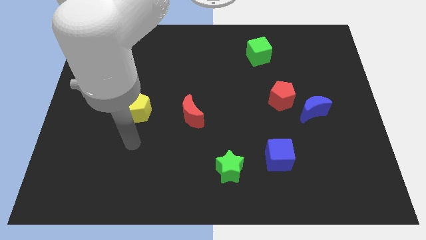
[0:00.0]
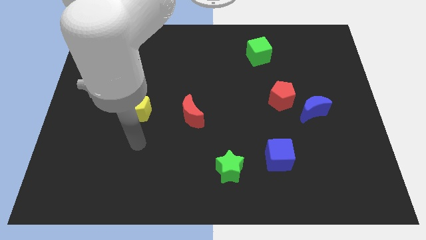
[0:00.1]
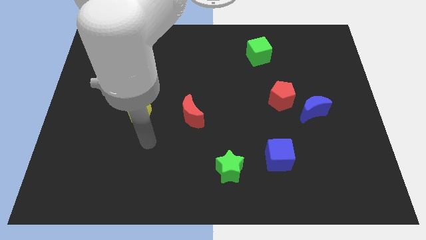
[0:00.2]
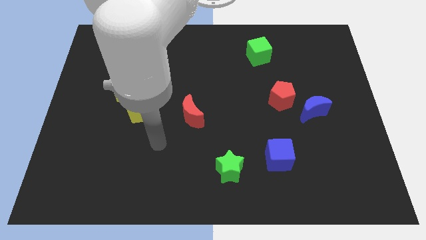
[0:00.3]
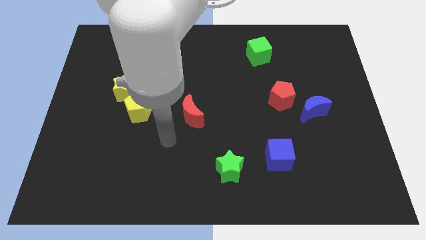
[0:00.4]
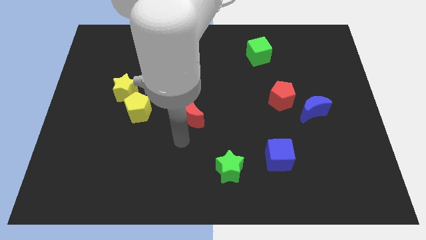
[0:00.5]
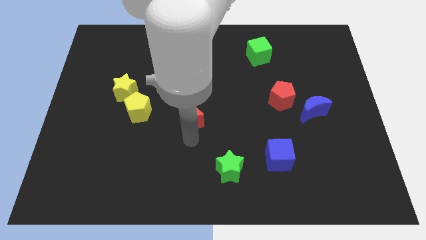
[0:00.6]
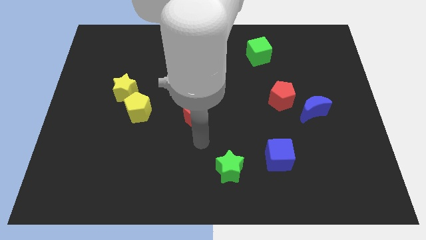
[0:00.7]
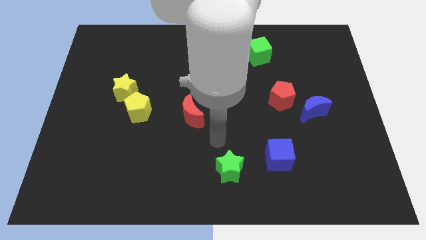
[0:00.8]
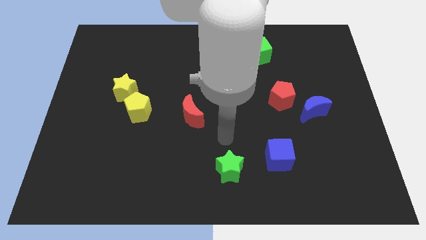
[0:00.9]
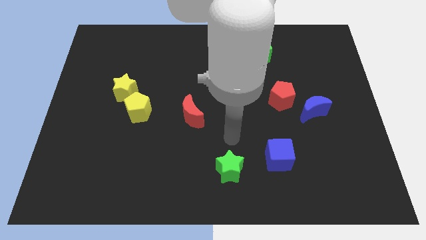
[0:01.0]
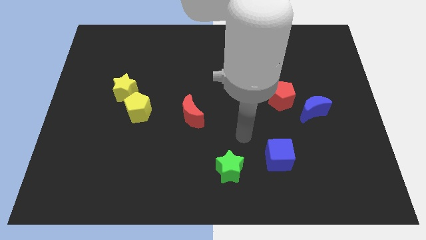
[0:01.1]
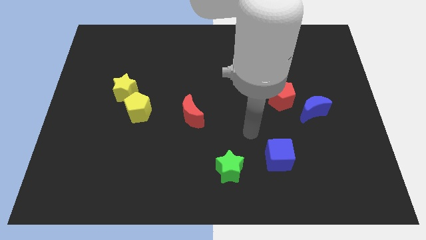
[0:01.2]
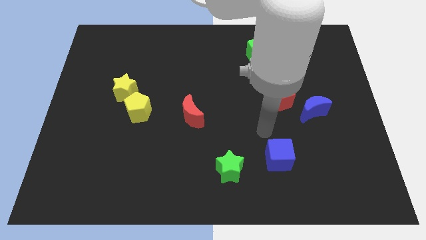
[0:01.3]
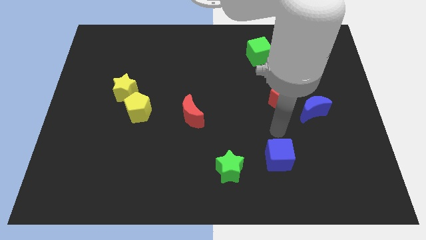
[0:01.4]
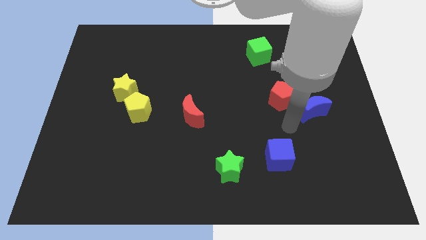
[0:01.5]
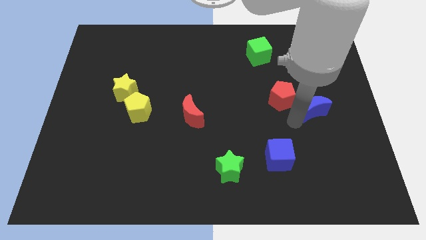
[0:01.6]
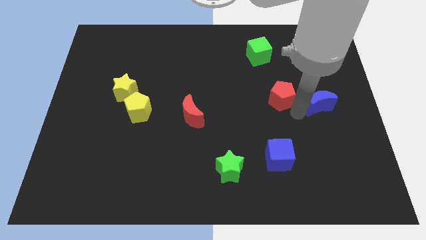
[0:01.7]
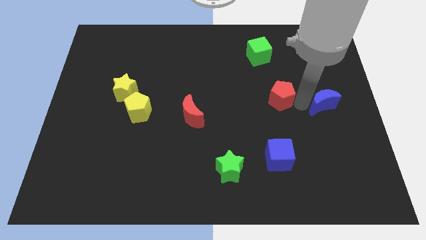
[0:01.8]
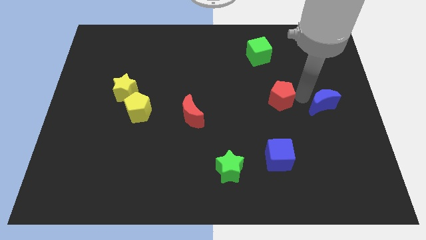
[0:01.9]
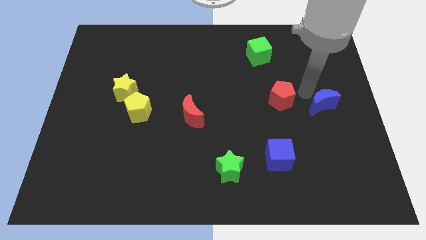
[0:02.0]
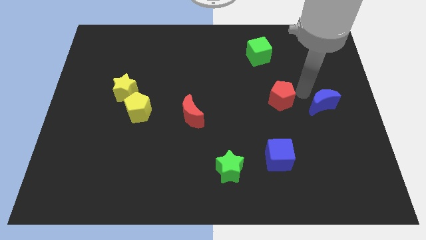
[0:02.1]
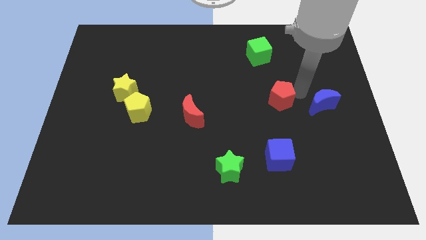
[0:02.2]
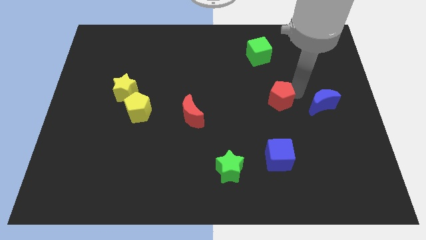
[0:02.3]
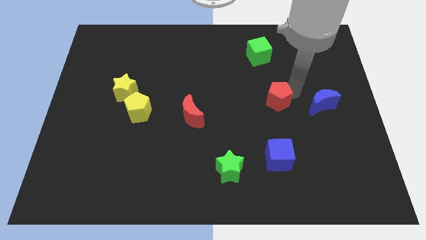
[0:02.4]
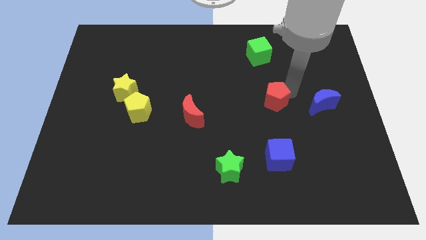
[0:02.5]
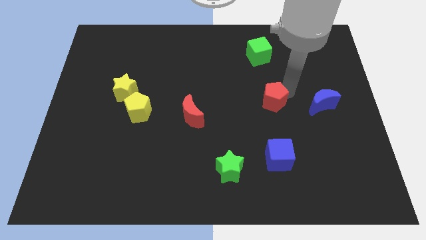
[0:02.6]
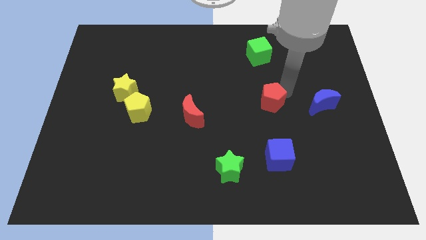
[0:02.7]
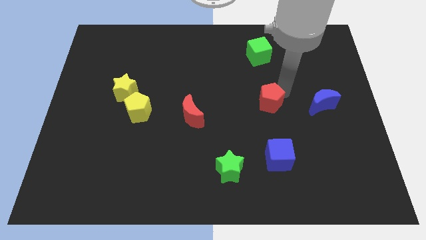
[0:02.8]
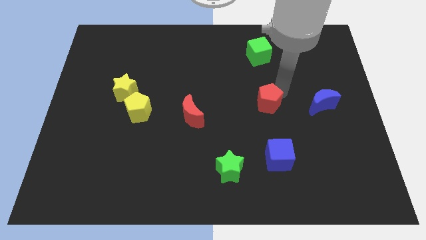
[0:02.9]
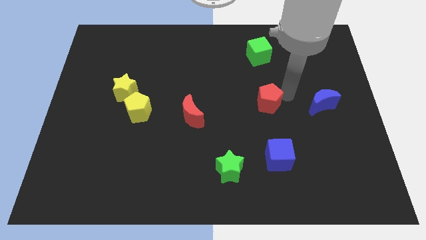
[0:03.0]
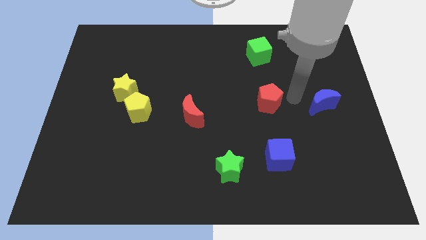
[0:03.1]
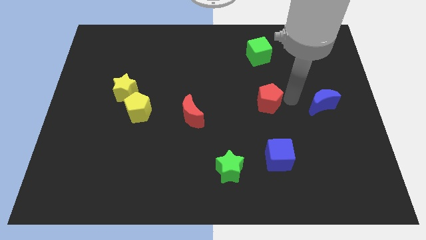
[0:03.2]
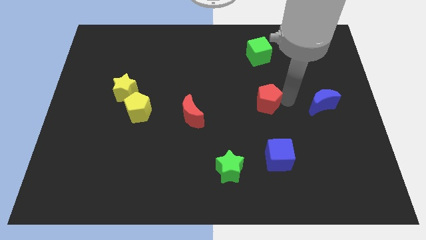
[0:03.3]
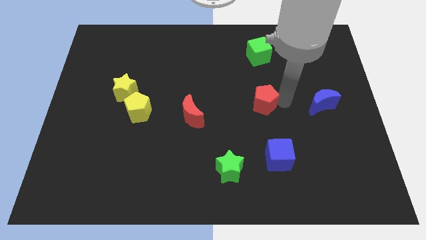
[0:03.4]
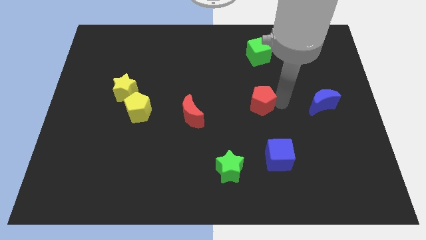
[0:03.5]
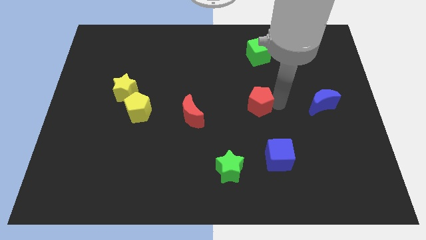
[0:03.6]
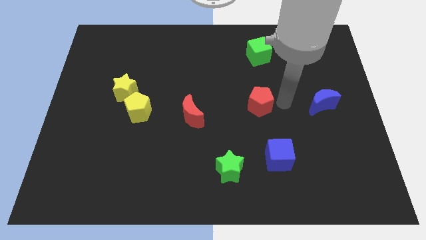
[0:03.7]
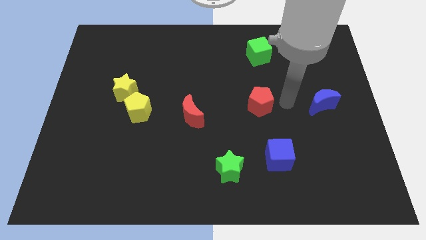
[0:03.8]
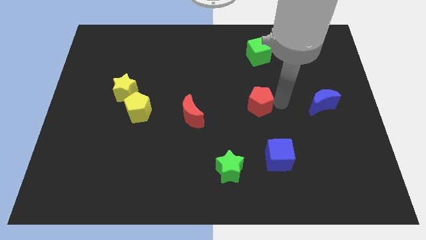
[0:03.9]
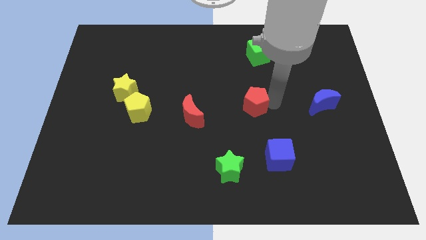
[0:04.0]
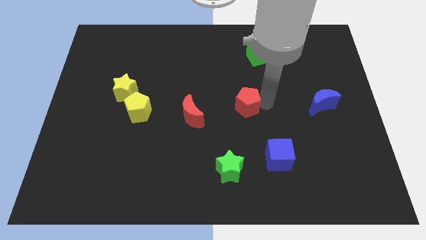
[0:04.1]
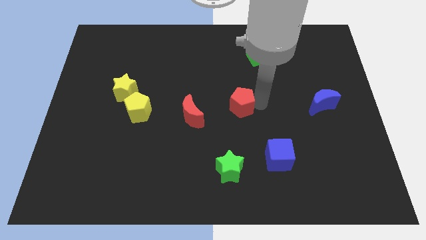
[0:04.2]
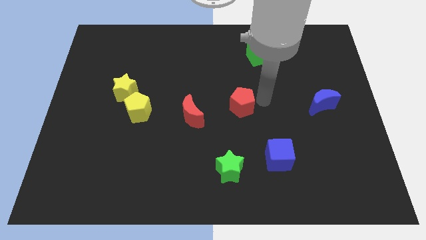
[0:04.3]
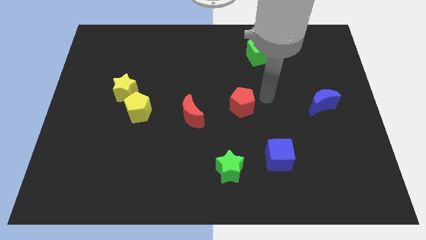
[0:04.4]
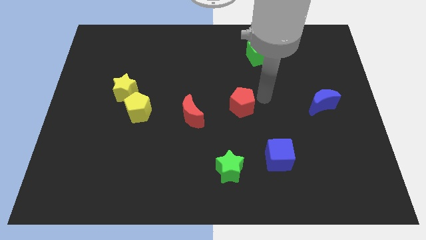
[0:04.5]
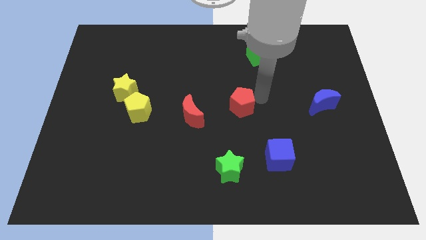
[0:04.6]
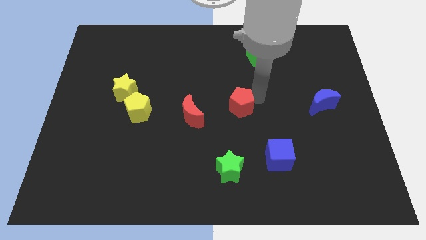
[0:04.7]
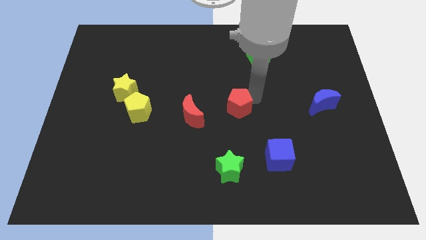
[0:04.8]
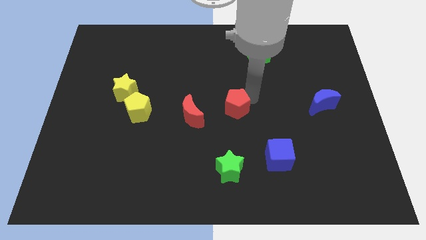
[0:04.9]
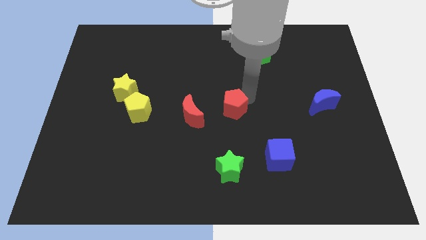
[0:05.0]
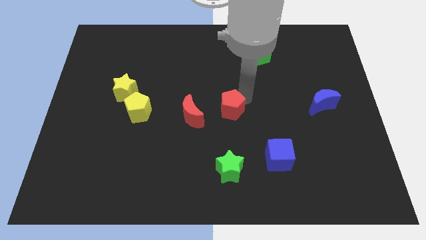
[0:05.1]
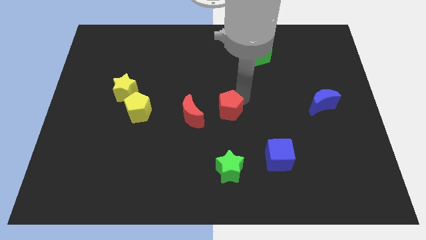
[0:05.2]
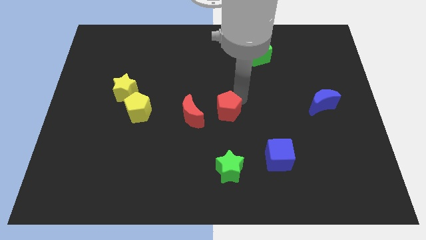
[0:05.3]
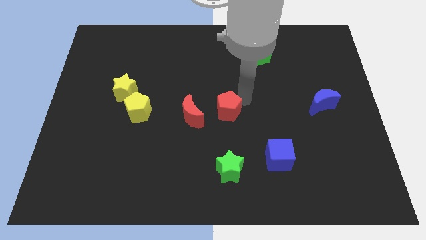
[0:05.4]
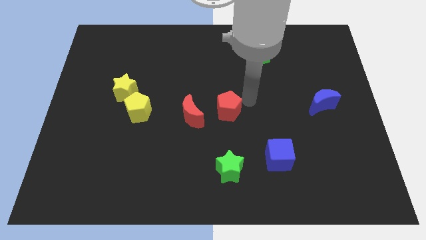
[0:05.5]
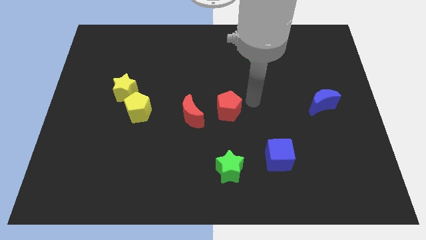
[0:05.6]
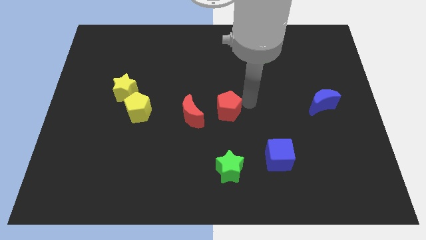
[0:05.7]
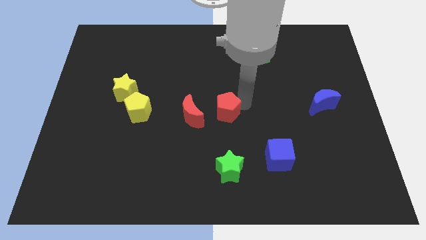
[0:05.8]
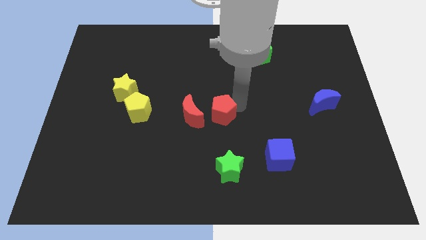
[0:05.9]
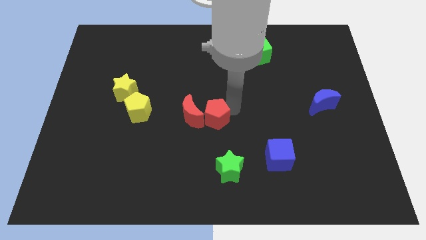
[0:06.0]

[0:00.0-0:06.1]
move the red pentagon close to the red moon

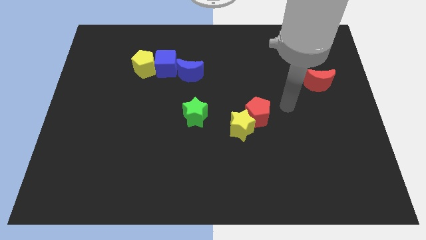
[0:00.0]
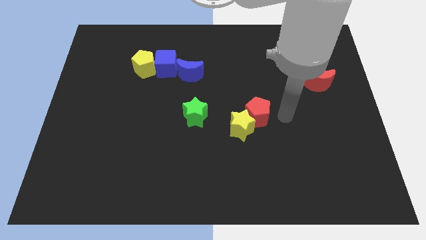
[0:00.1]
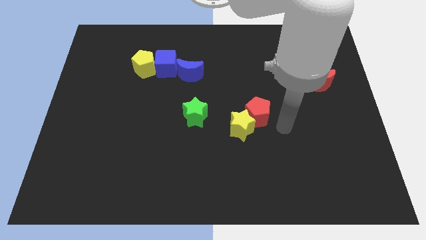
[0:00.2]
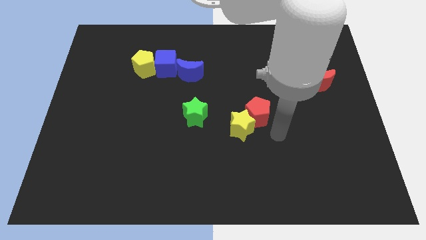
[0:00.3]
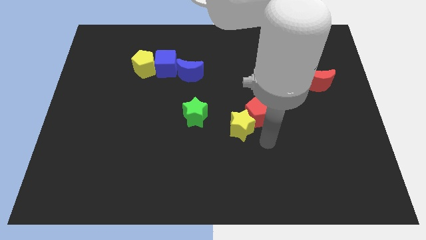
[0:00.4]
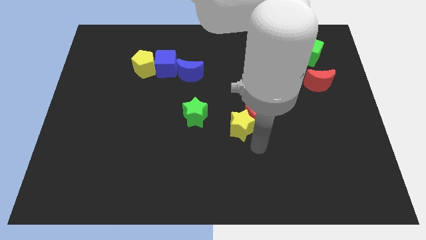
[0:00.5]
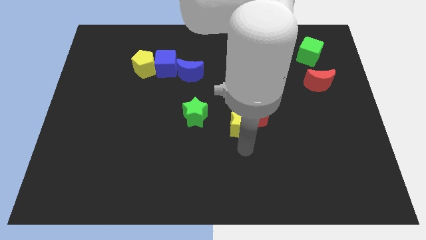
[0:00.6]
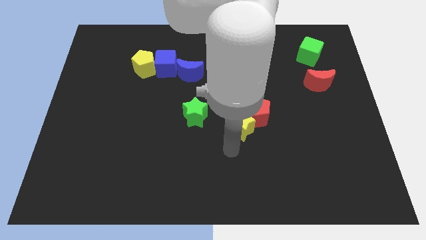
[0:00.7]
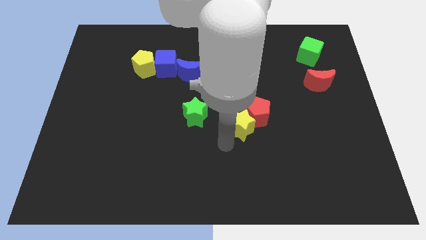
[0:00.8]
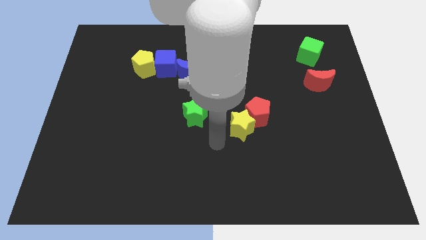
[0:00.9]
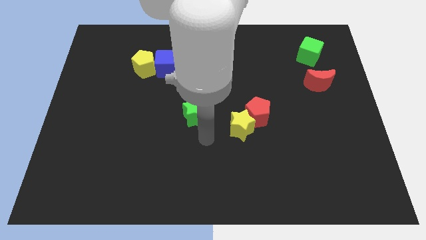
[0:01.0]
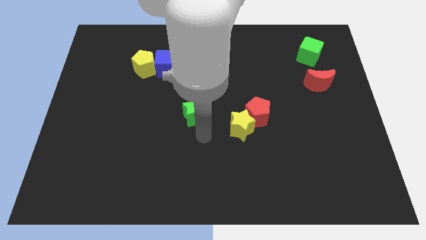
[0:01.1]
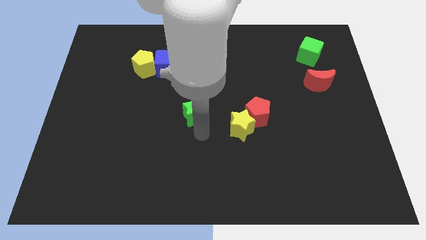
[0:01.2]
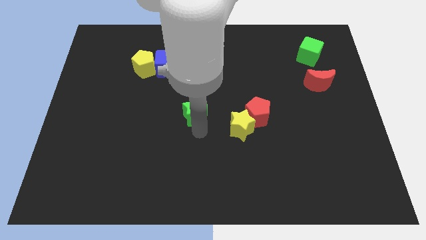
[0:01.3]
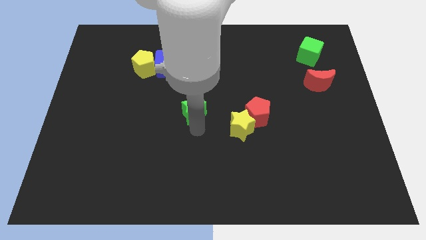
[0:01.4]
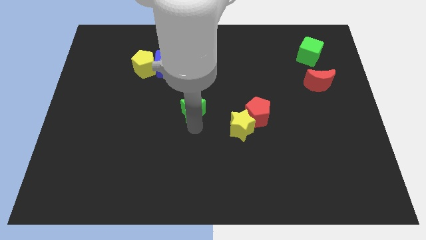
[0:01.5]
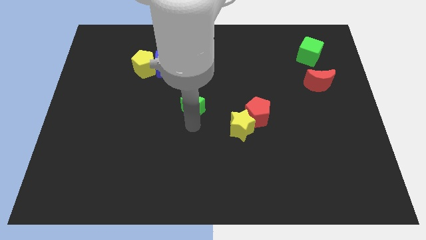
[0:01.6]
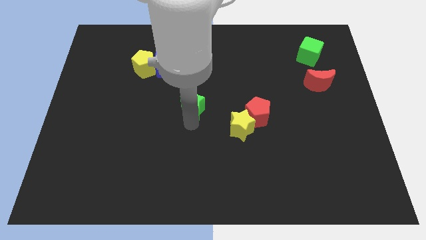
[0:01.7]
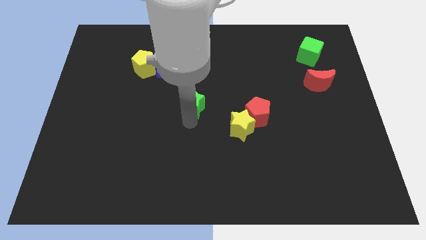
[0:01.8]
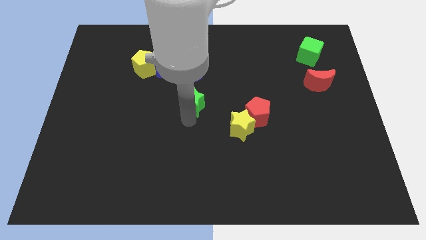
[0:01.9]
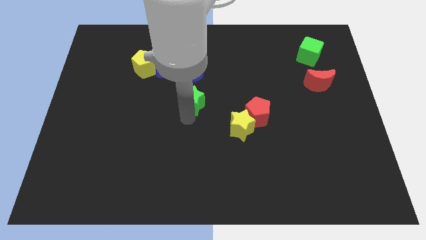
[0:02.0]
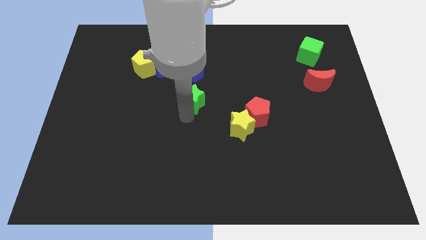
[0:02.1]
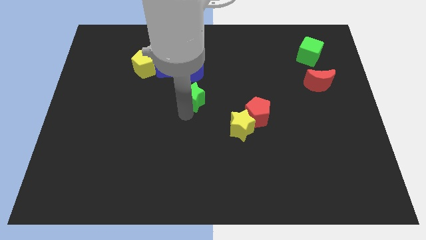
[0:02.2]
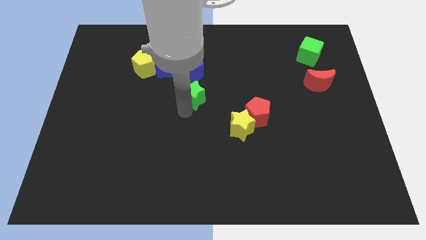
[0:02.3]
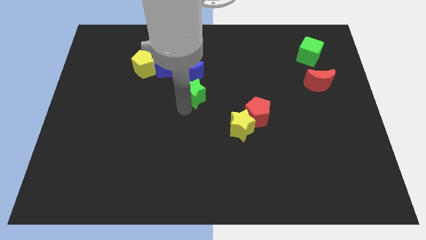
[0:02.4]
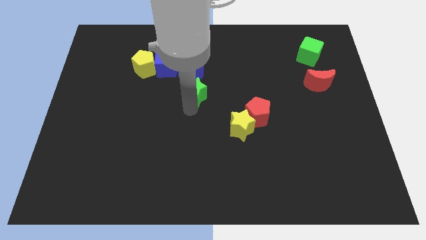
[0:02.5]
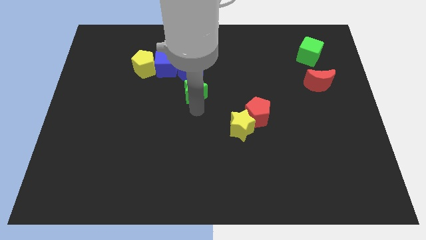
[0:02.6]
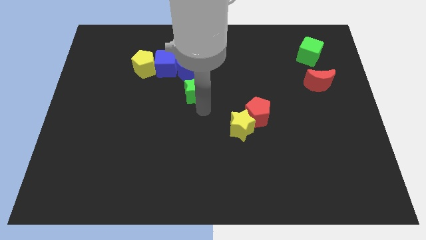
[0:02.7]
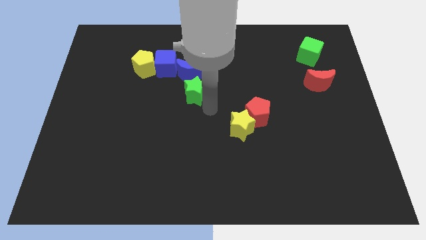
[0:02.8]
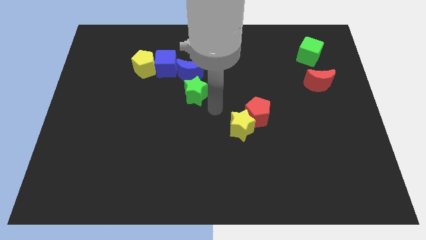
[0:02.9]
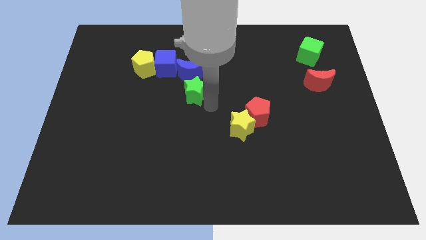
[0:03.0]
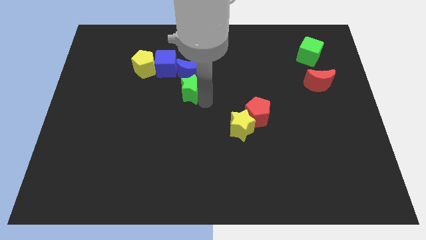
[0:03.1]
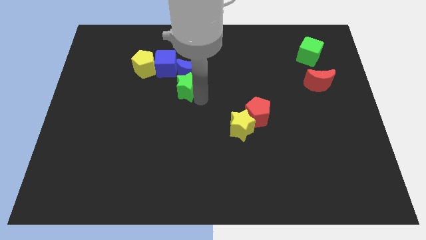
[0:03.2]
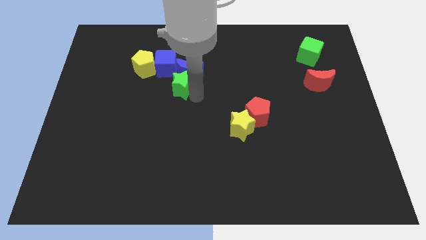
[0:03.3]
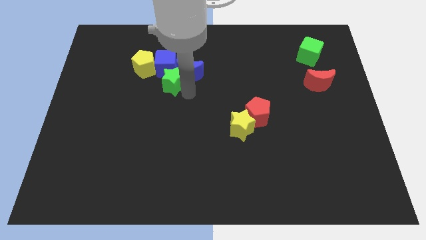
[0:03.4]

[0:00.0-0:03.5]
slide the green star to the blue cube
